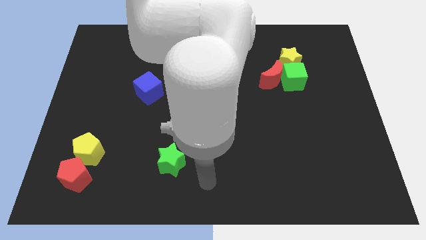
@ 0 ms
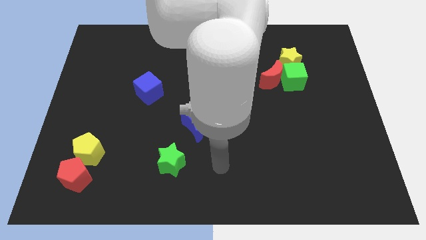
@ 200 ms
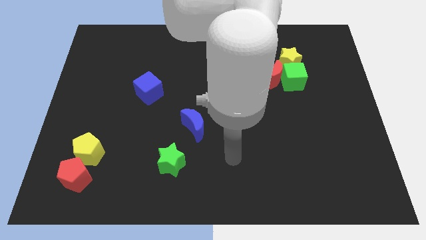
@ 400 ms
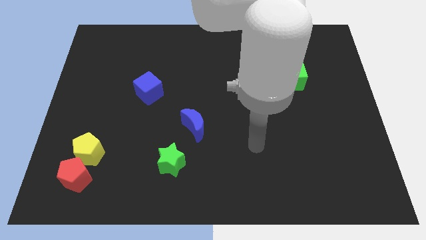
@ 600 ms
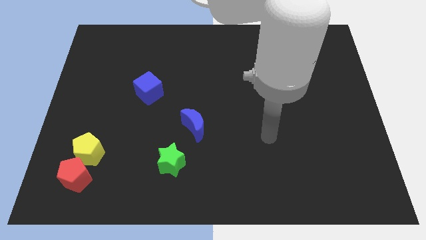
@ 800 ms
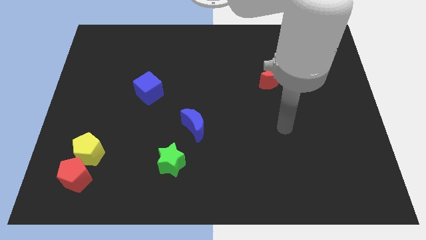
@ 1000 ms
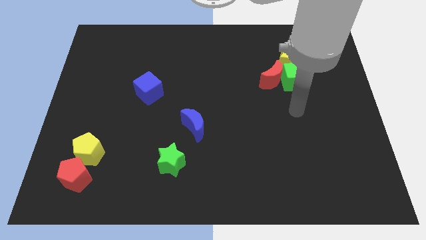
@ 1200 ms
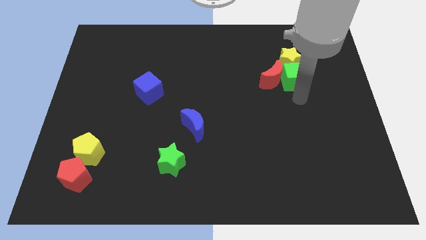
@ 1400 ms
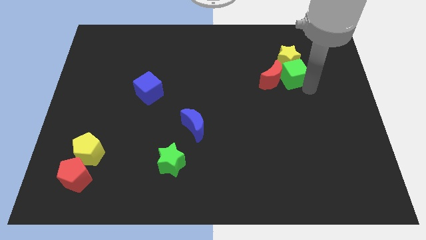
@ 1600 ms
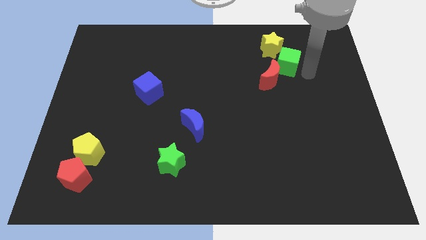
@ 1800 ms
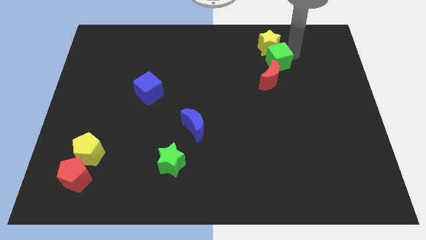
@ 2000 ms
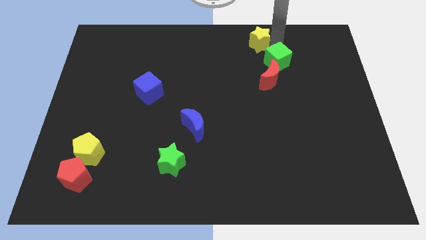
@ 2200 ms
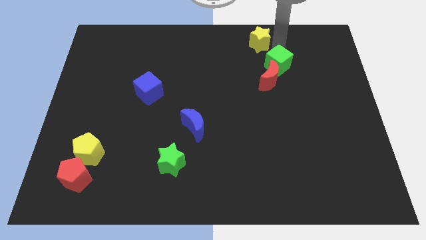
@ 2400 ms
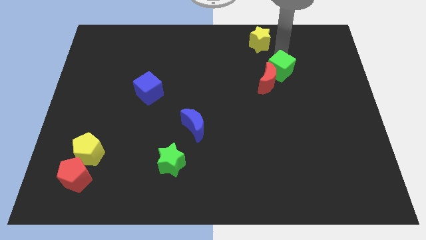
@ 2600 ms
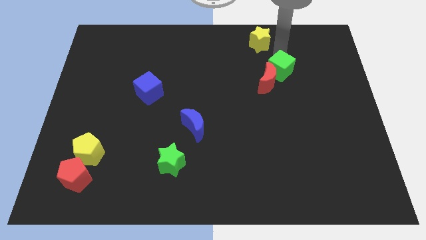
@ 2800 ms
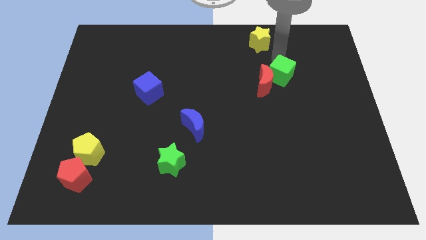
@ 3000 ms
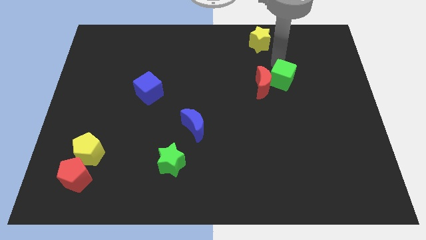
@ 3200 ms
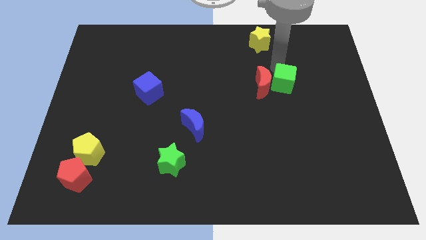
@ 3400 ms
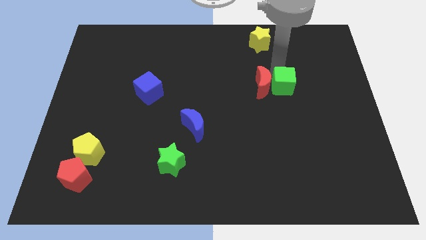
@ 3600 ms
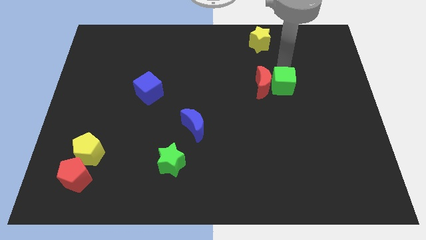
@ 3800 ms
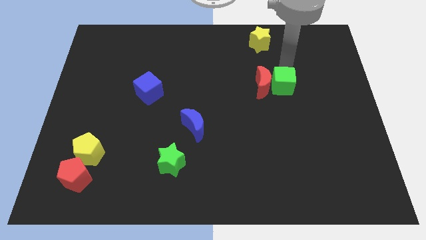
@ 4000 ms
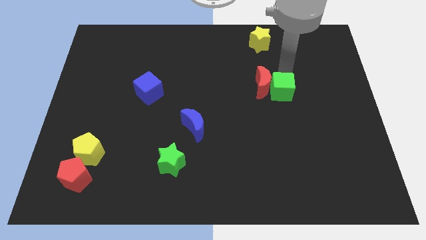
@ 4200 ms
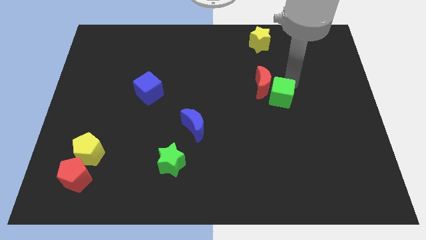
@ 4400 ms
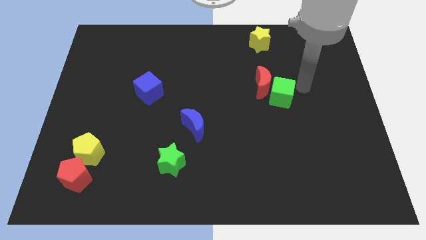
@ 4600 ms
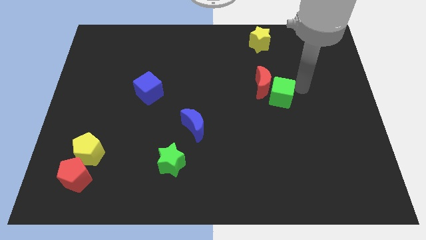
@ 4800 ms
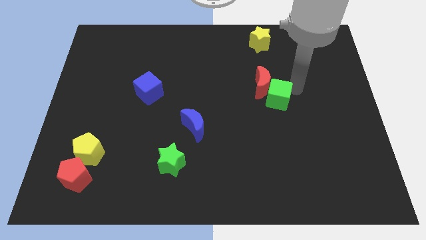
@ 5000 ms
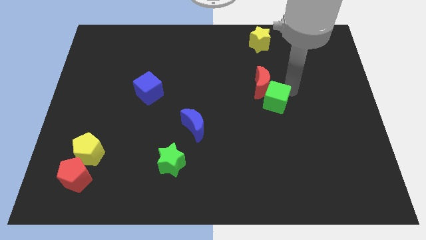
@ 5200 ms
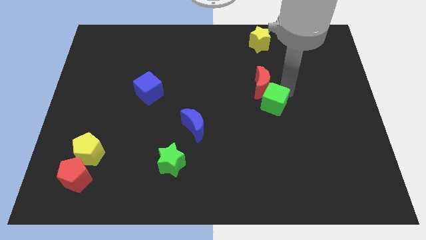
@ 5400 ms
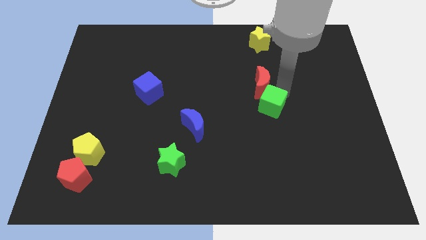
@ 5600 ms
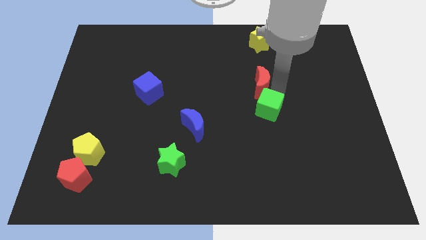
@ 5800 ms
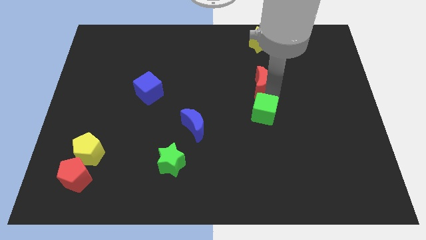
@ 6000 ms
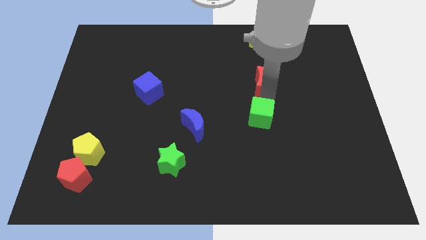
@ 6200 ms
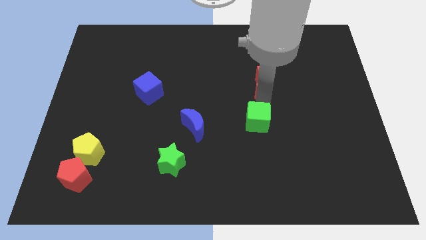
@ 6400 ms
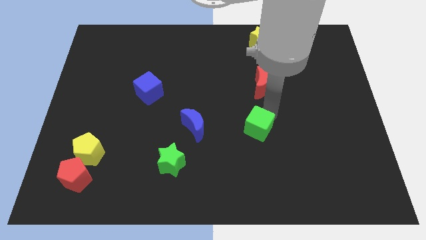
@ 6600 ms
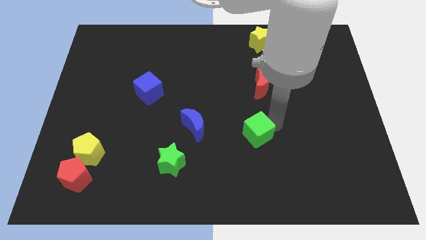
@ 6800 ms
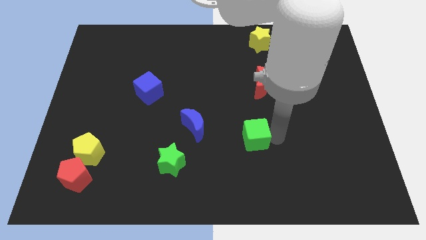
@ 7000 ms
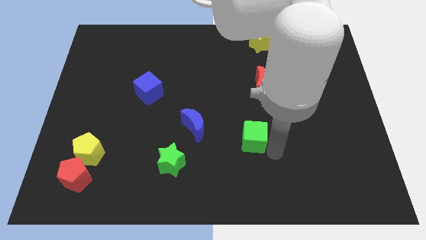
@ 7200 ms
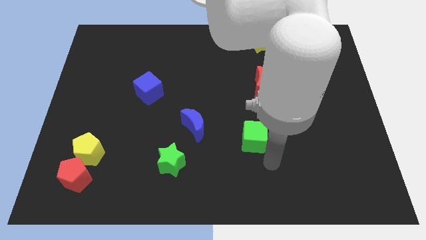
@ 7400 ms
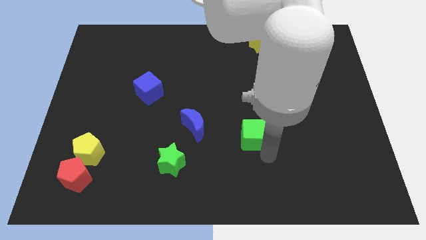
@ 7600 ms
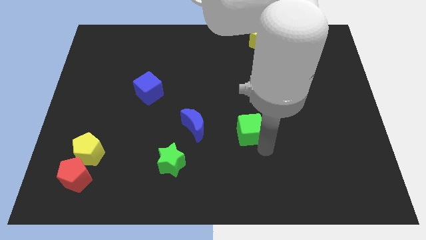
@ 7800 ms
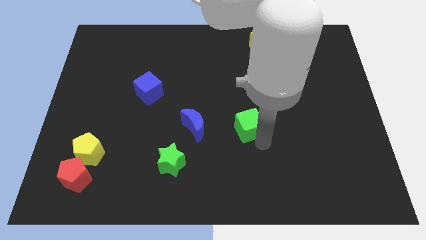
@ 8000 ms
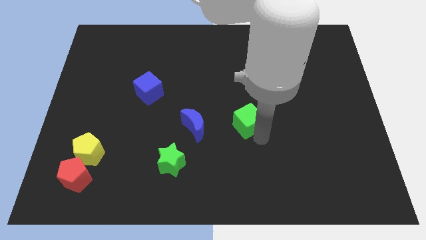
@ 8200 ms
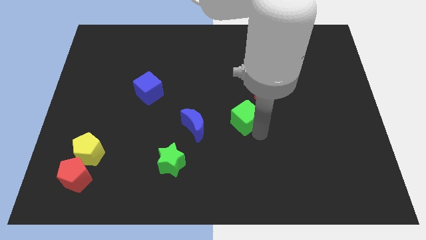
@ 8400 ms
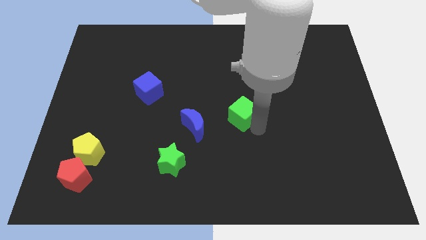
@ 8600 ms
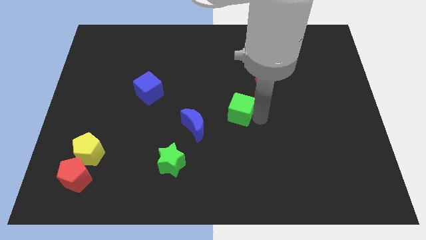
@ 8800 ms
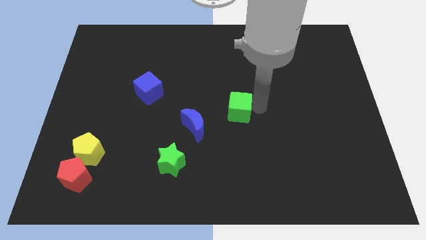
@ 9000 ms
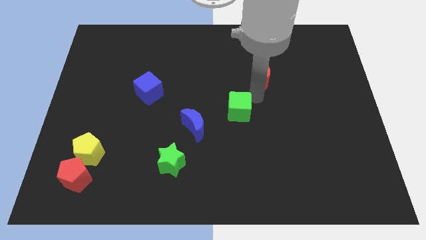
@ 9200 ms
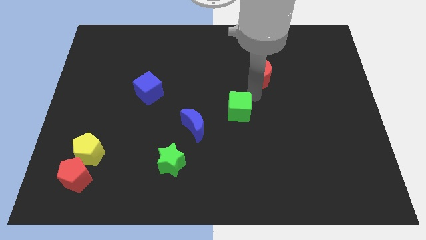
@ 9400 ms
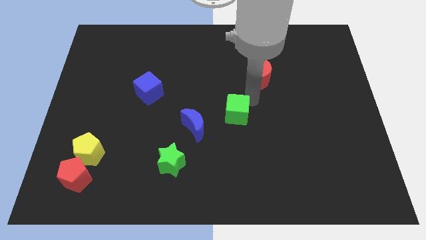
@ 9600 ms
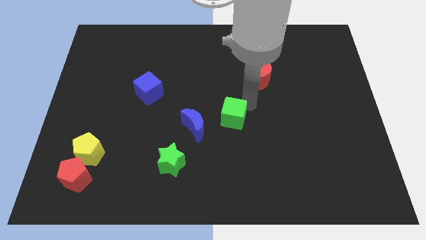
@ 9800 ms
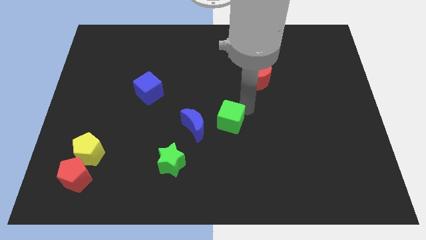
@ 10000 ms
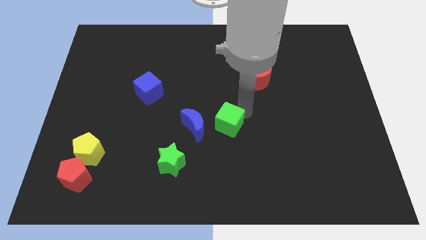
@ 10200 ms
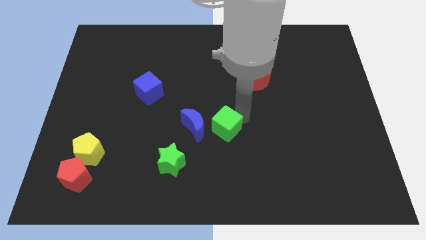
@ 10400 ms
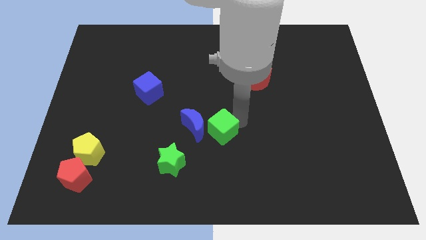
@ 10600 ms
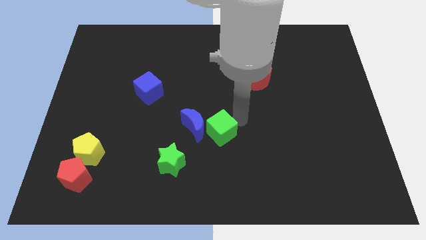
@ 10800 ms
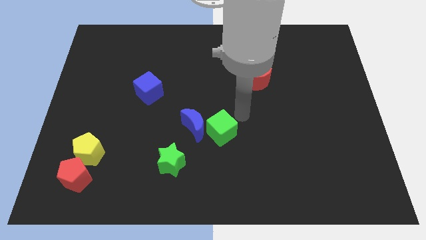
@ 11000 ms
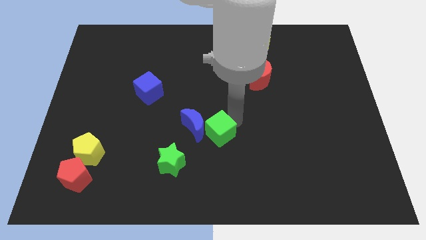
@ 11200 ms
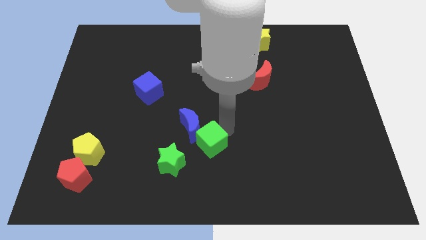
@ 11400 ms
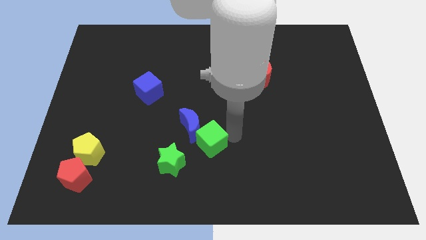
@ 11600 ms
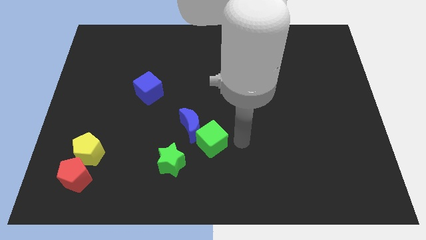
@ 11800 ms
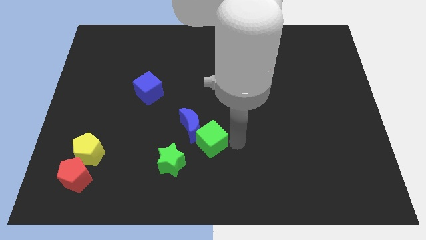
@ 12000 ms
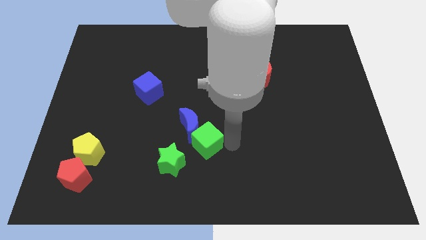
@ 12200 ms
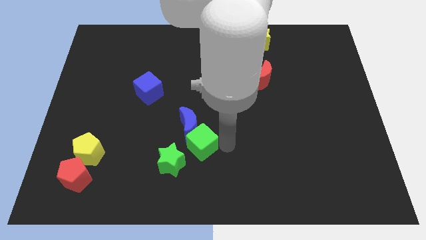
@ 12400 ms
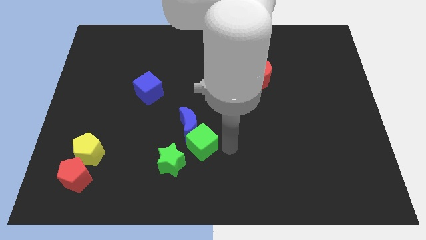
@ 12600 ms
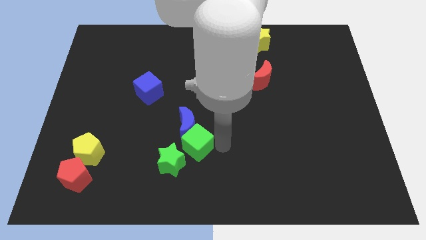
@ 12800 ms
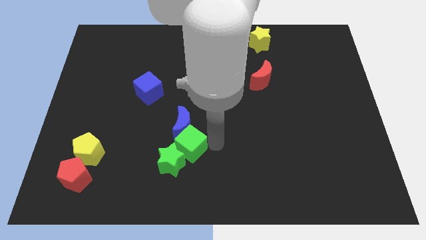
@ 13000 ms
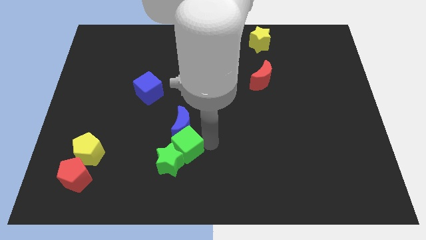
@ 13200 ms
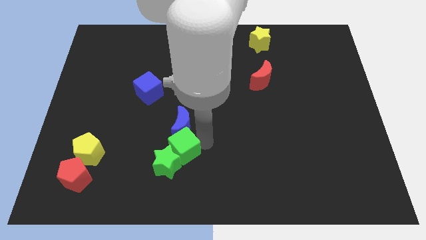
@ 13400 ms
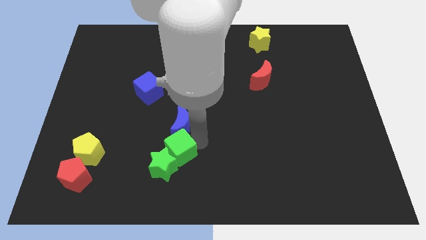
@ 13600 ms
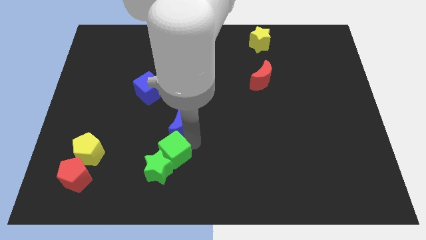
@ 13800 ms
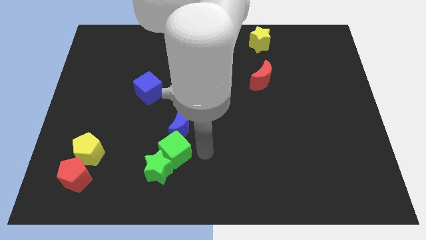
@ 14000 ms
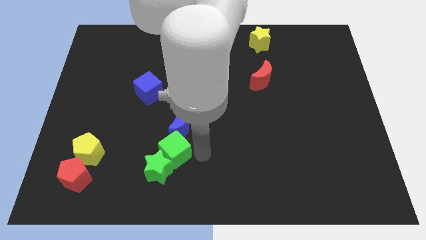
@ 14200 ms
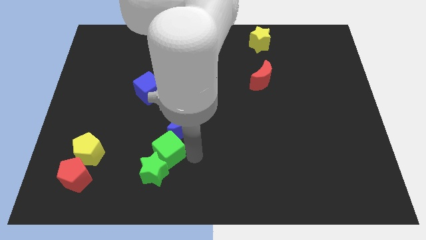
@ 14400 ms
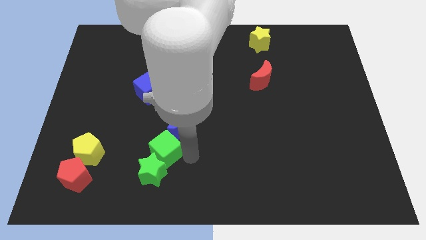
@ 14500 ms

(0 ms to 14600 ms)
push the green cube right of the yellow pentagon
